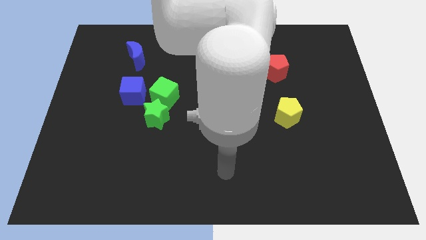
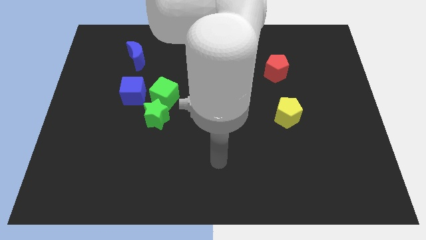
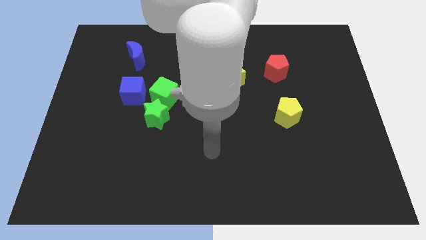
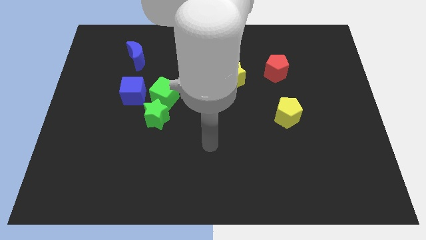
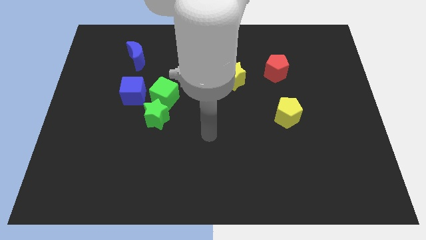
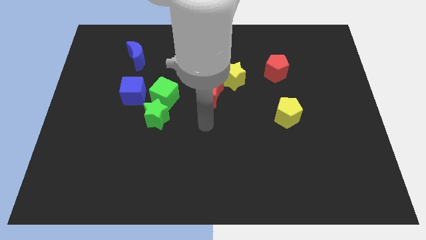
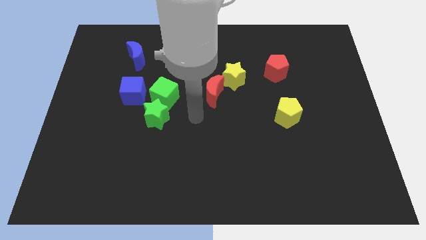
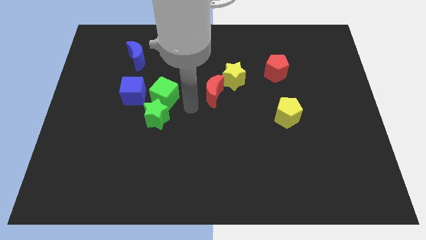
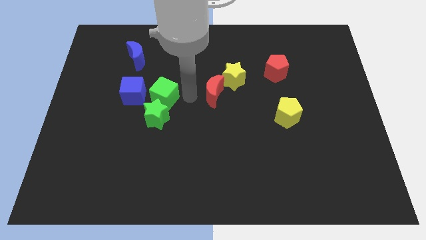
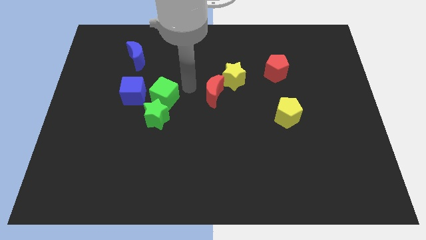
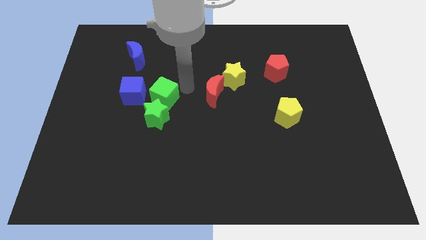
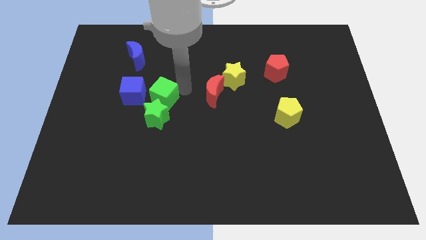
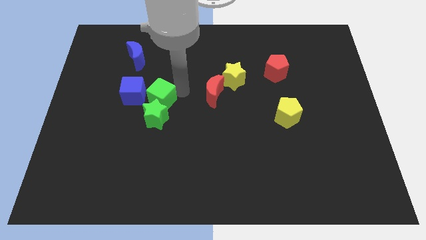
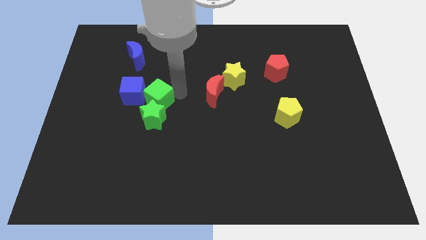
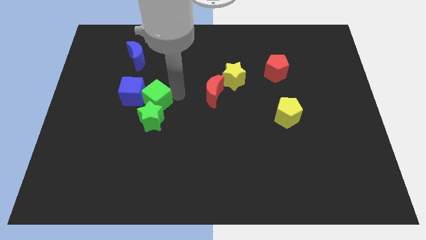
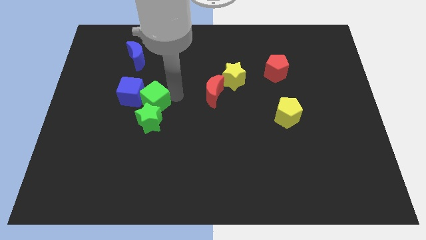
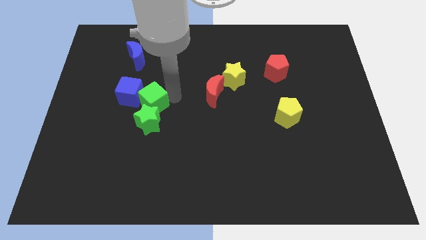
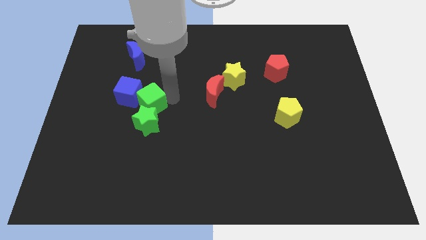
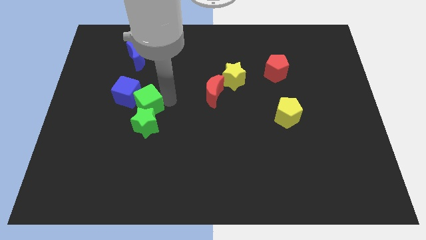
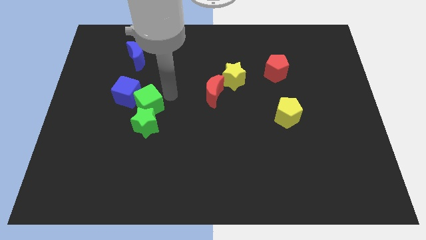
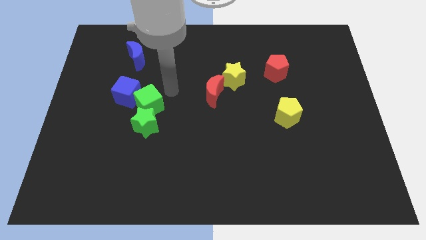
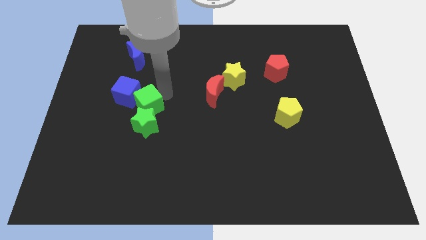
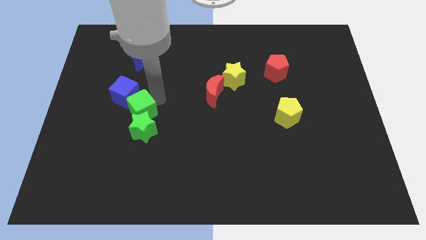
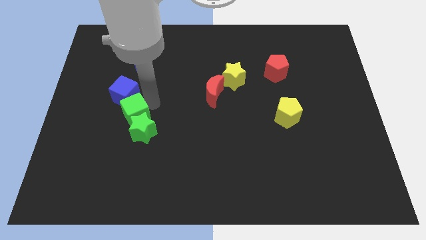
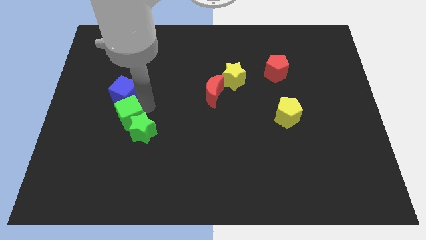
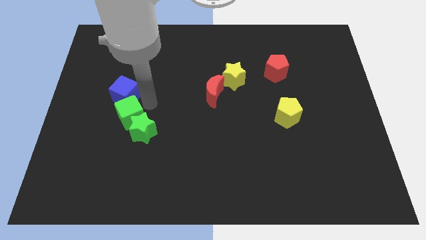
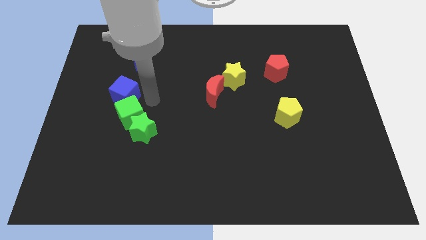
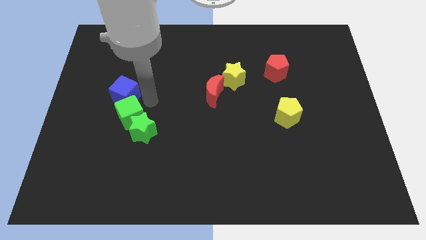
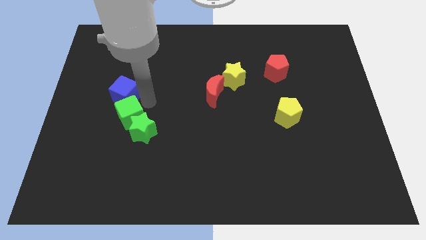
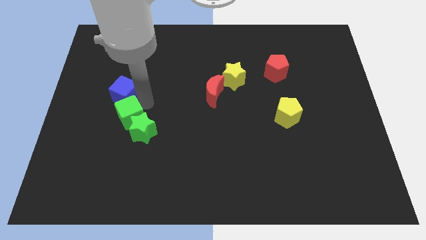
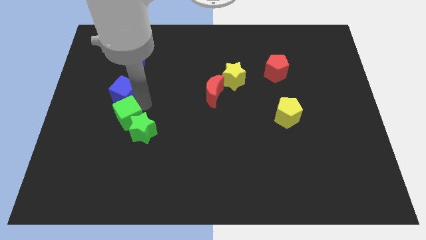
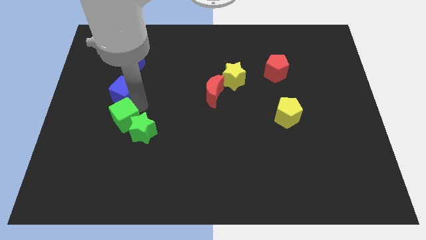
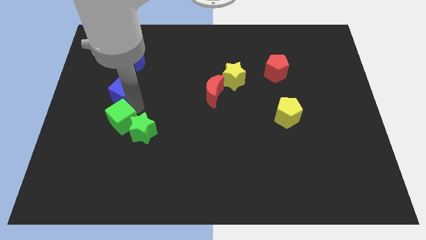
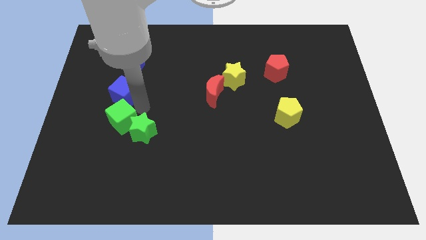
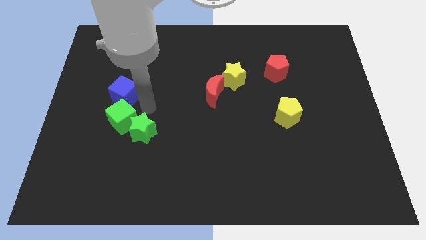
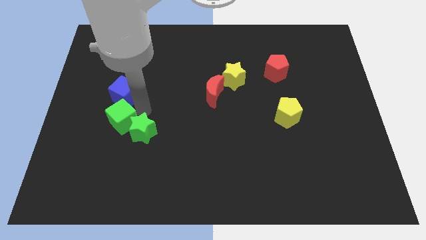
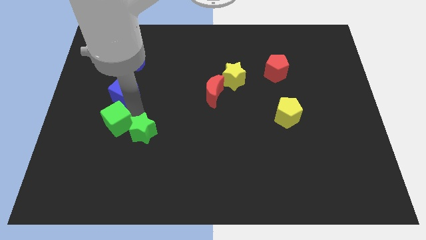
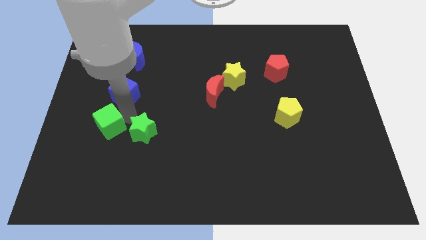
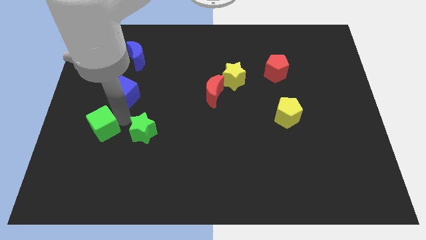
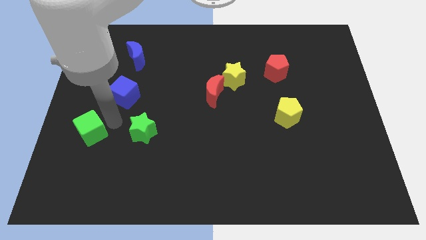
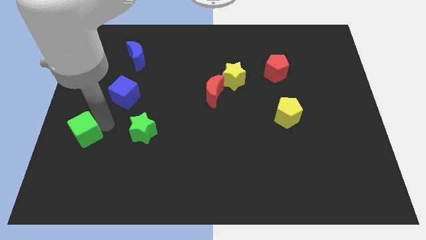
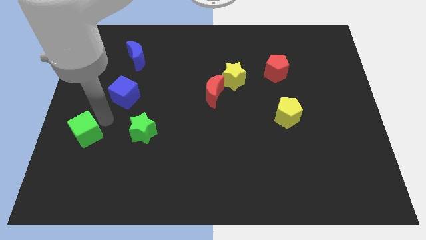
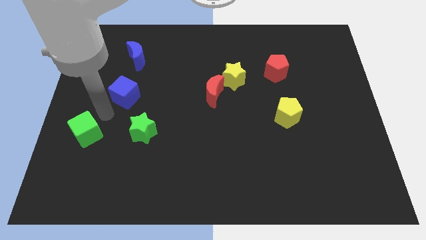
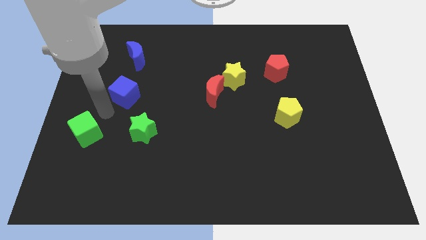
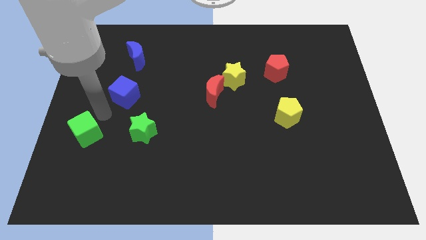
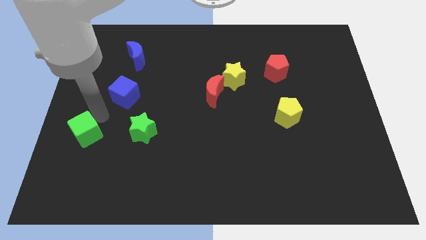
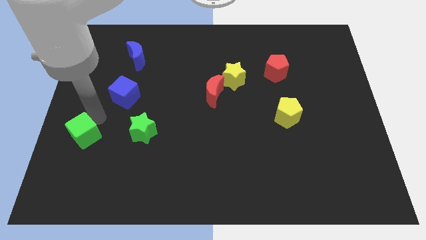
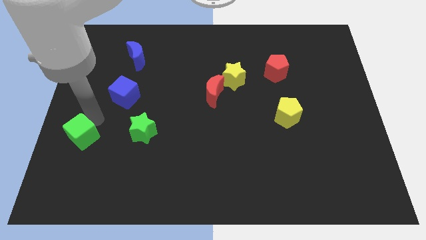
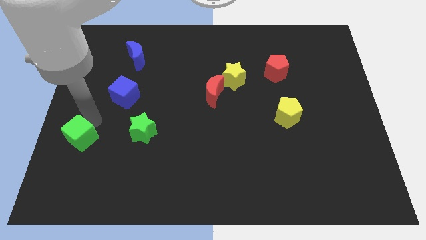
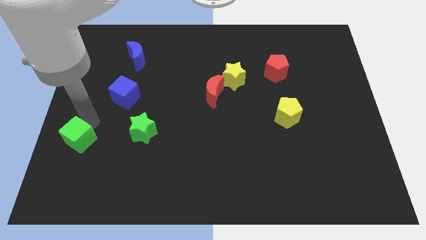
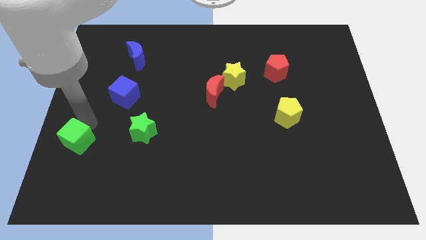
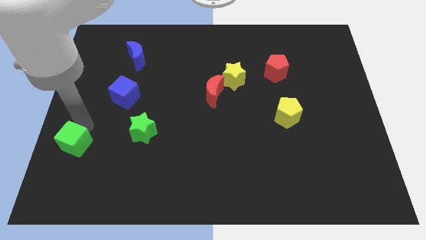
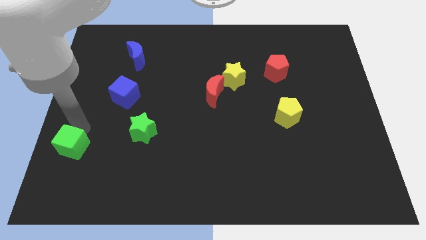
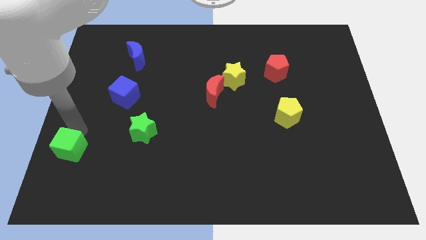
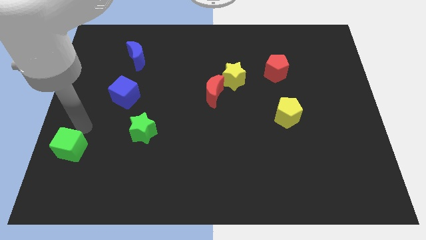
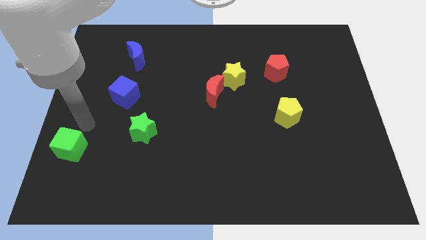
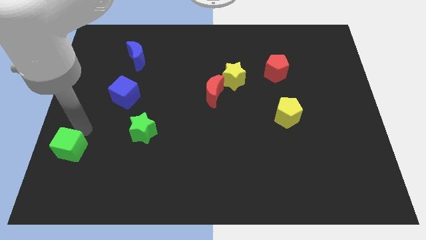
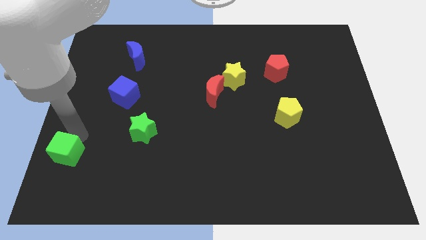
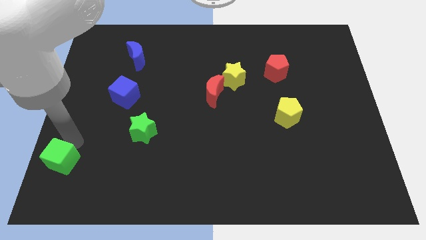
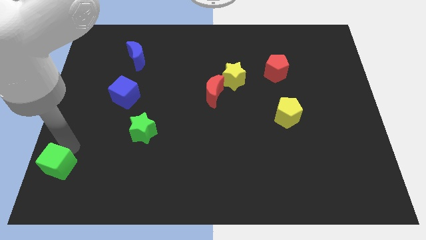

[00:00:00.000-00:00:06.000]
move the green cube to the bottom left corner
